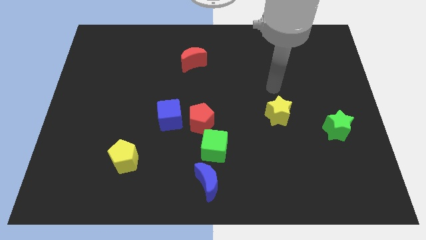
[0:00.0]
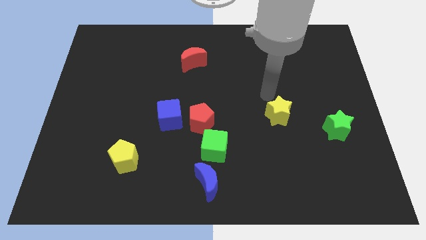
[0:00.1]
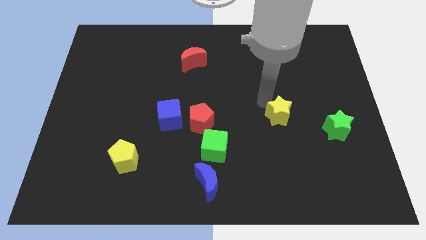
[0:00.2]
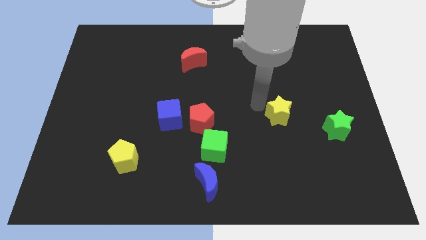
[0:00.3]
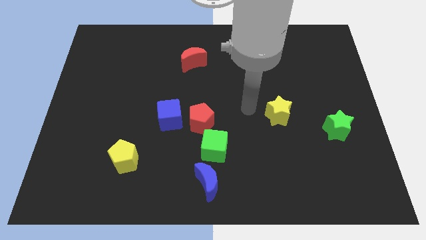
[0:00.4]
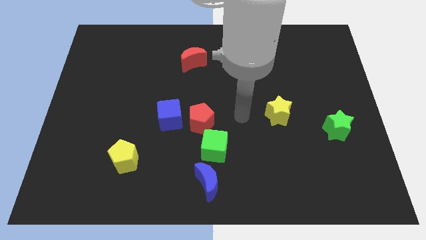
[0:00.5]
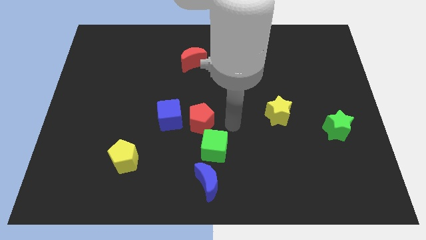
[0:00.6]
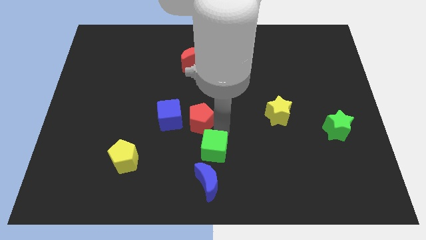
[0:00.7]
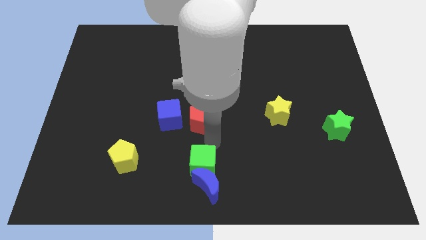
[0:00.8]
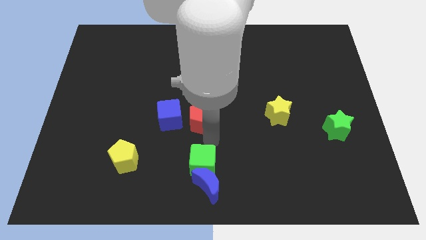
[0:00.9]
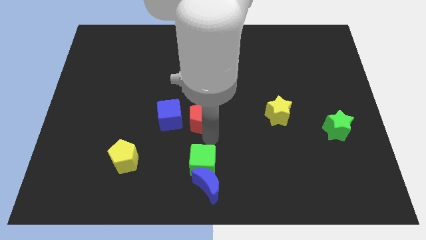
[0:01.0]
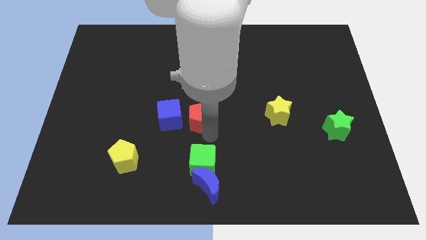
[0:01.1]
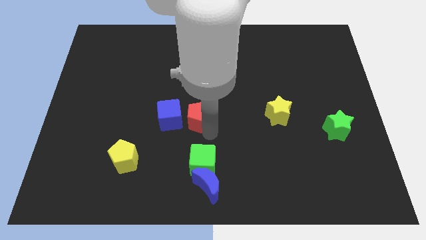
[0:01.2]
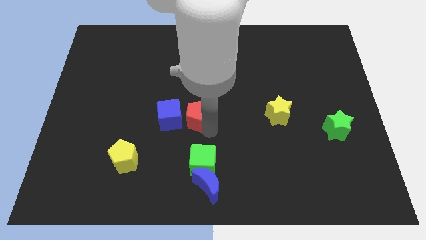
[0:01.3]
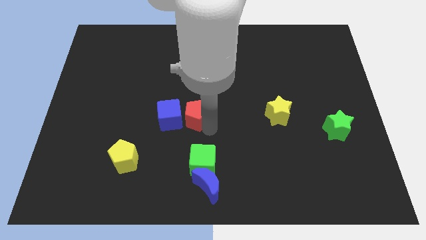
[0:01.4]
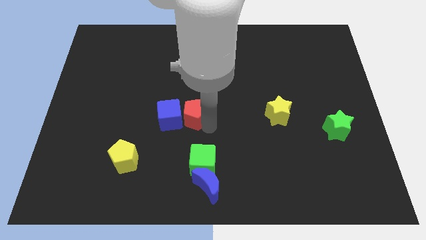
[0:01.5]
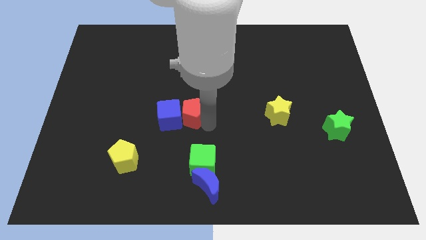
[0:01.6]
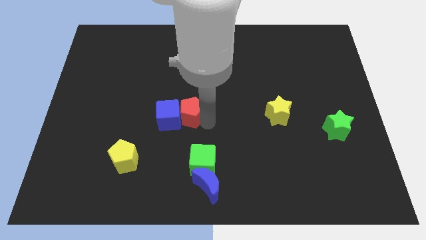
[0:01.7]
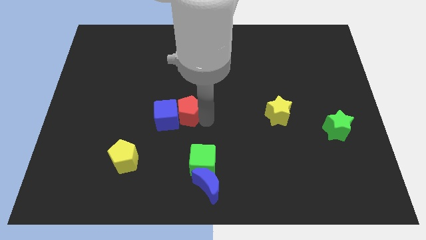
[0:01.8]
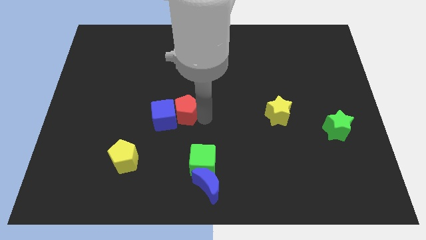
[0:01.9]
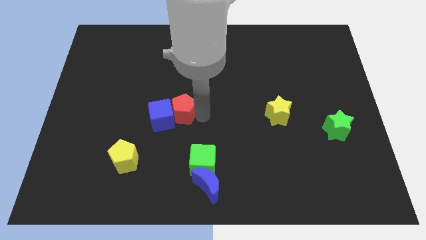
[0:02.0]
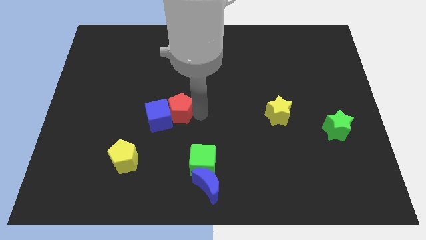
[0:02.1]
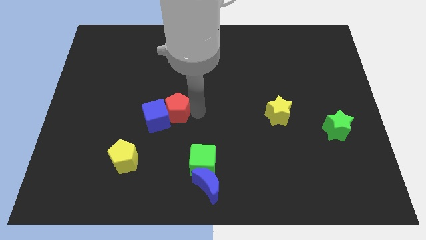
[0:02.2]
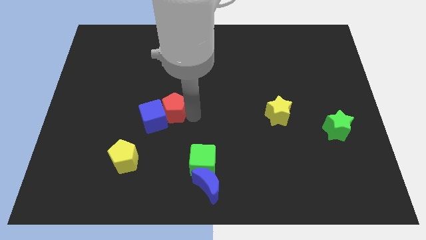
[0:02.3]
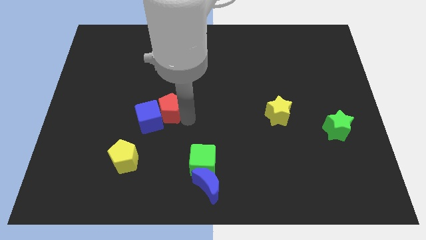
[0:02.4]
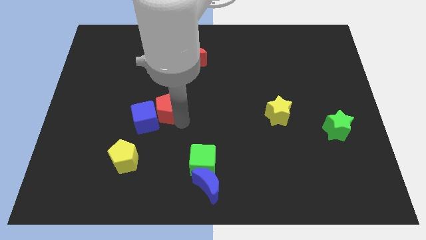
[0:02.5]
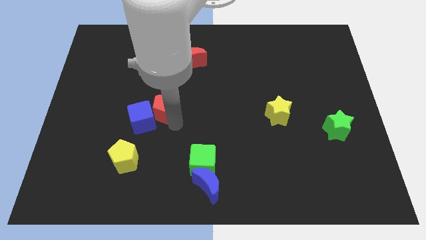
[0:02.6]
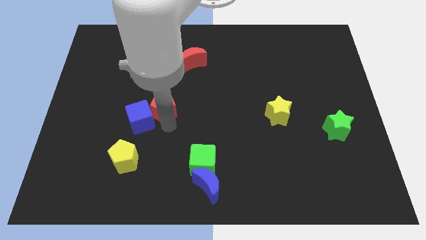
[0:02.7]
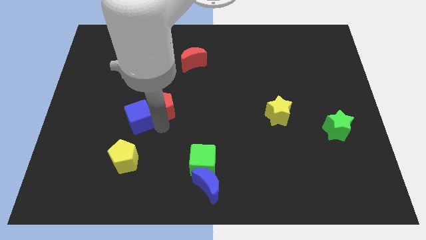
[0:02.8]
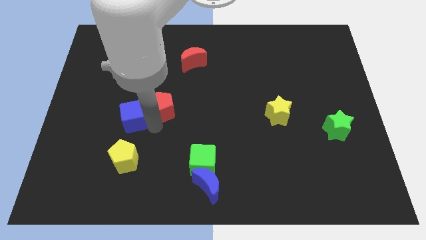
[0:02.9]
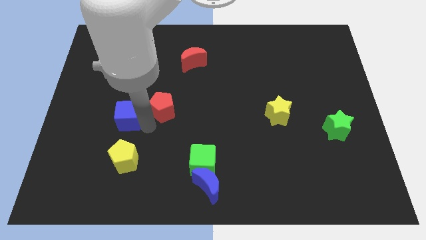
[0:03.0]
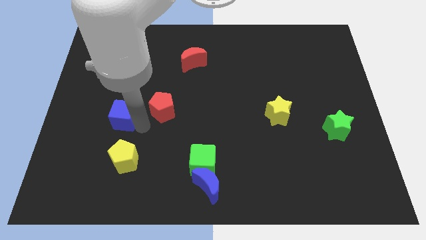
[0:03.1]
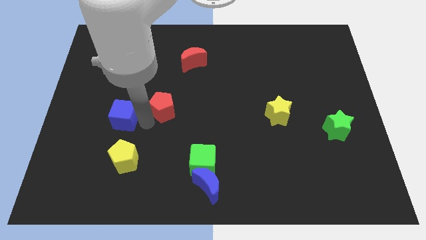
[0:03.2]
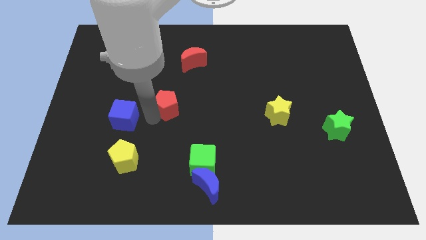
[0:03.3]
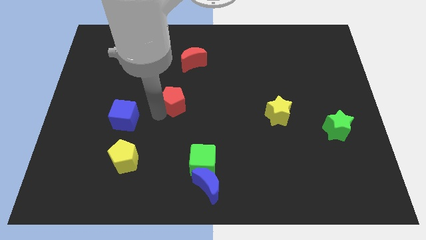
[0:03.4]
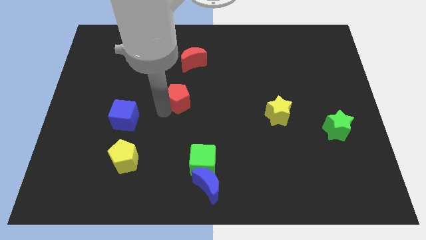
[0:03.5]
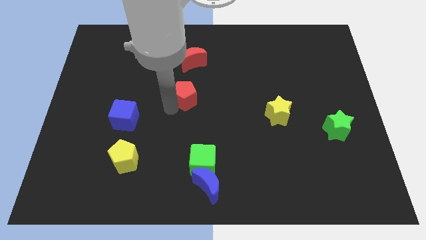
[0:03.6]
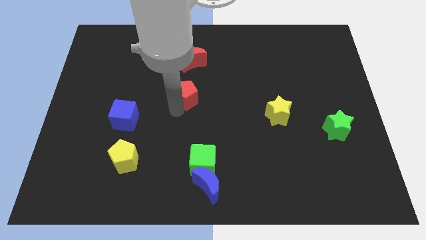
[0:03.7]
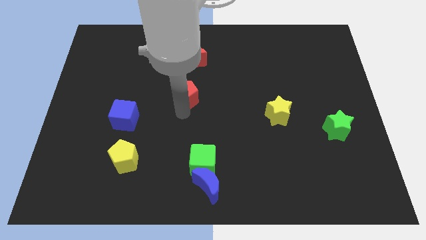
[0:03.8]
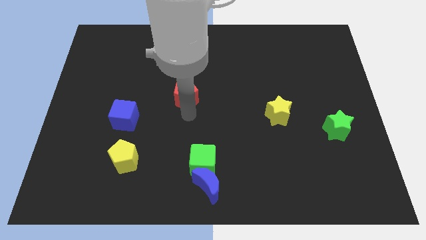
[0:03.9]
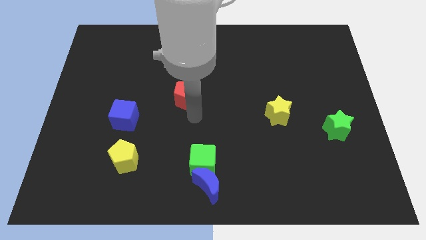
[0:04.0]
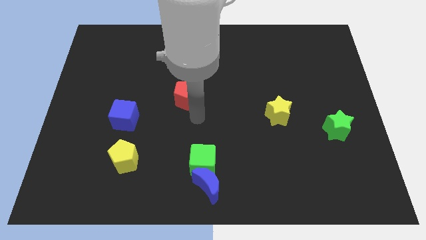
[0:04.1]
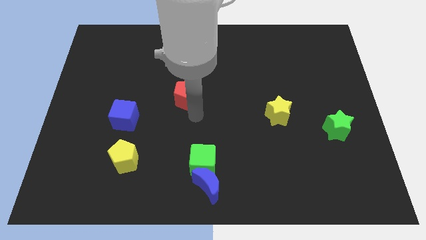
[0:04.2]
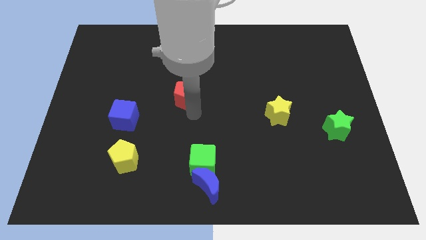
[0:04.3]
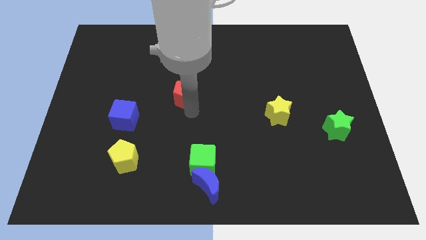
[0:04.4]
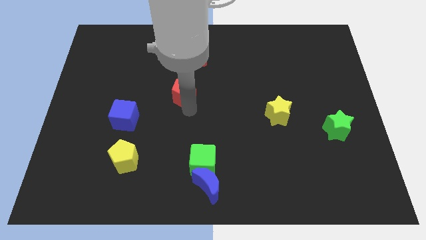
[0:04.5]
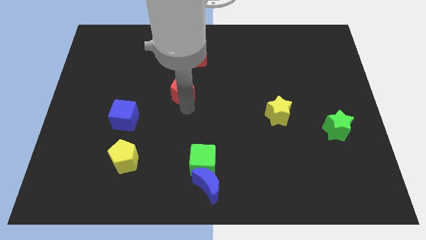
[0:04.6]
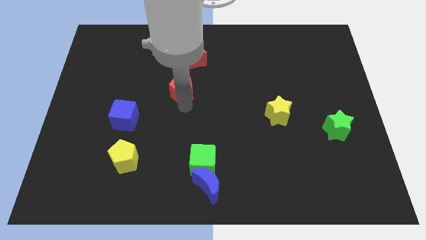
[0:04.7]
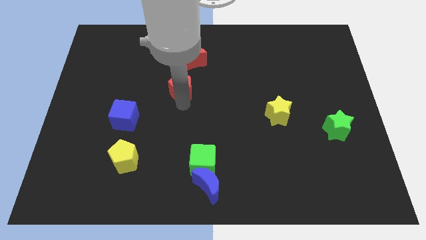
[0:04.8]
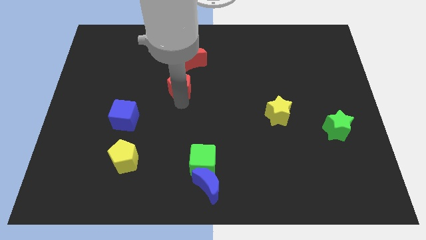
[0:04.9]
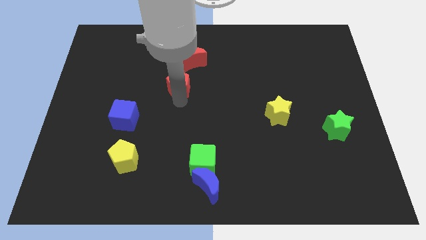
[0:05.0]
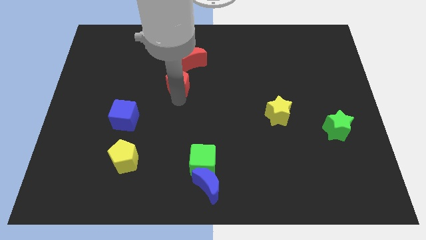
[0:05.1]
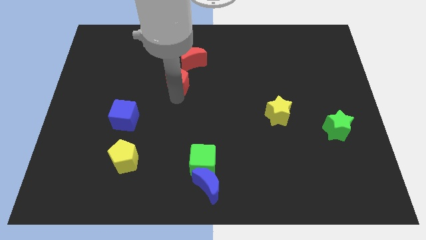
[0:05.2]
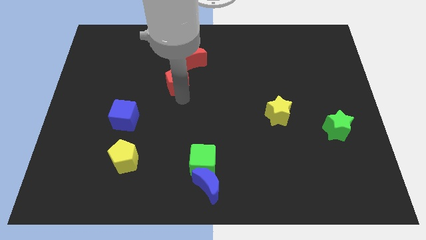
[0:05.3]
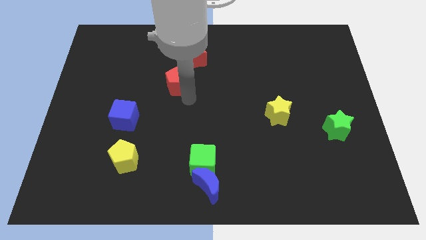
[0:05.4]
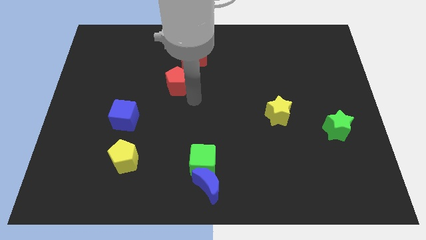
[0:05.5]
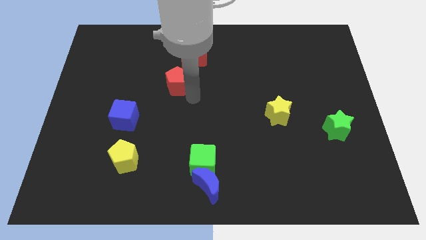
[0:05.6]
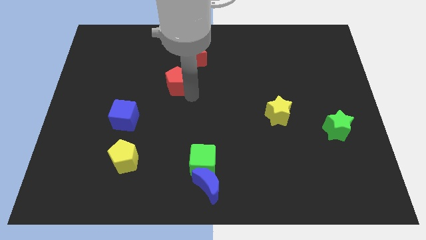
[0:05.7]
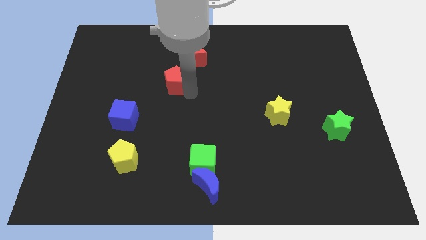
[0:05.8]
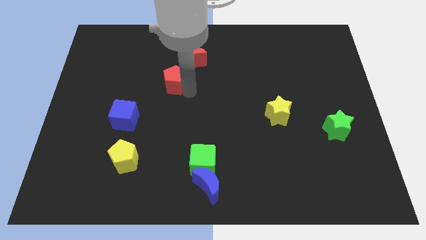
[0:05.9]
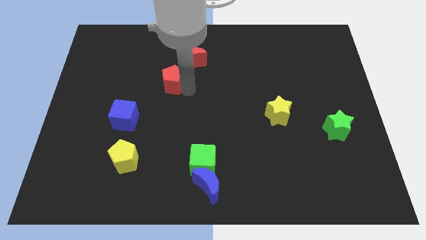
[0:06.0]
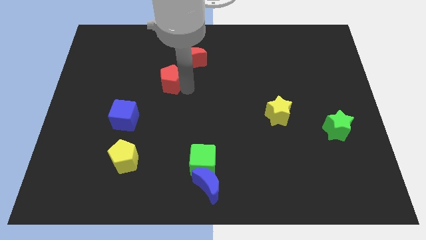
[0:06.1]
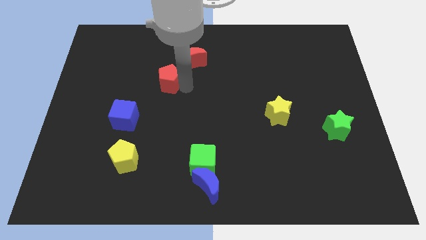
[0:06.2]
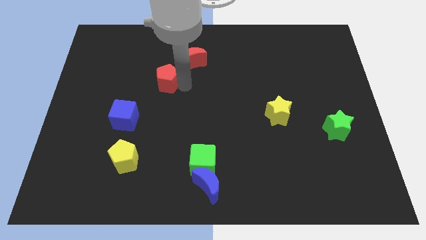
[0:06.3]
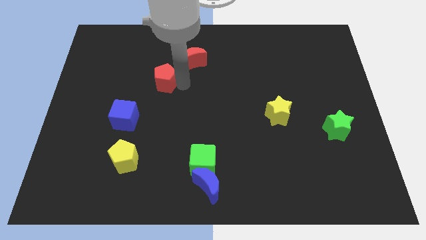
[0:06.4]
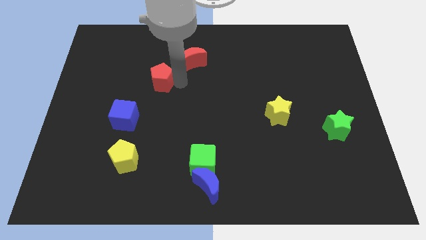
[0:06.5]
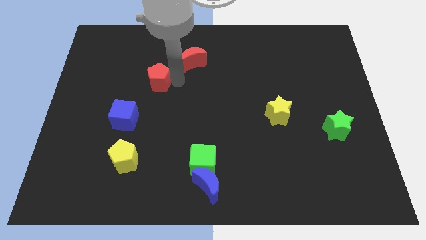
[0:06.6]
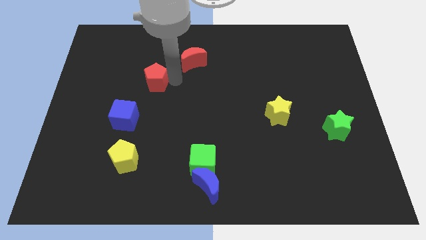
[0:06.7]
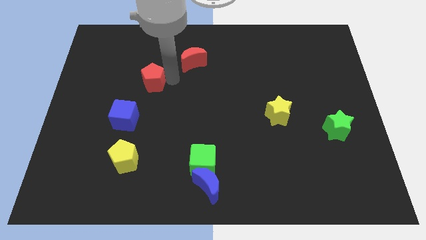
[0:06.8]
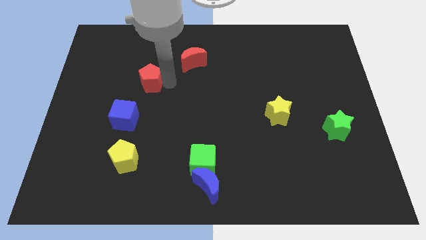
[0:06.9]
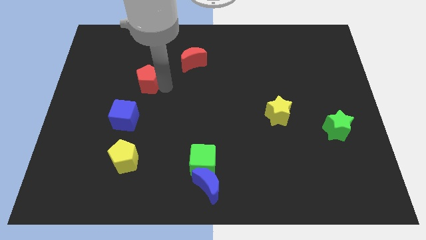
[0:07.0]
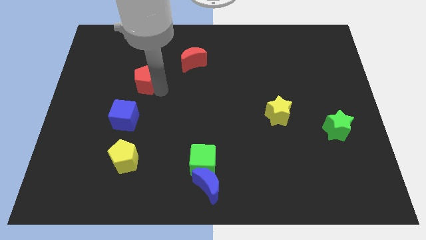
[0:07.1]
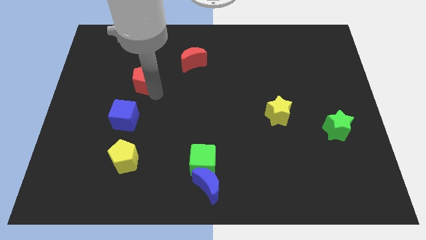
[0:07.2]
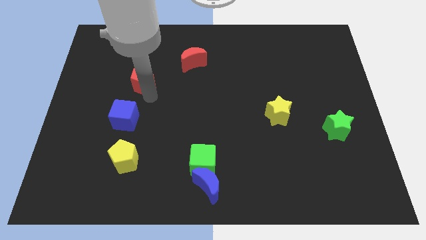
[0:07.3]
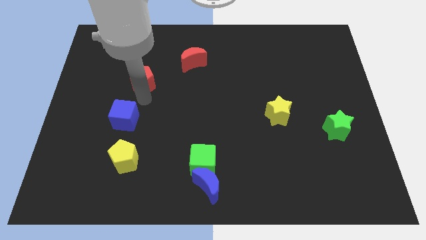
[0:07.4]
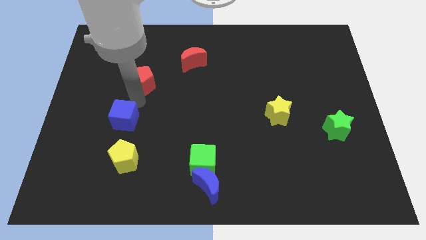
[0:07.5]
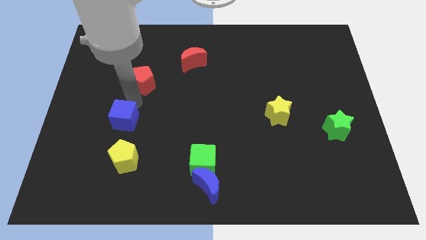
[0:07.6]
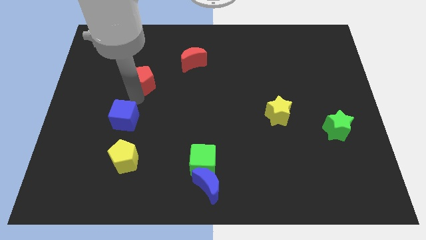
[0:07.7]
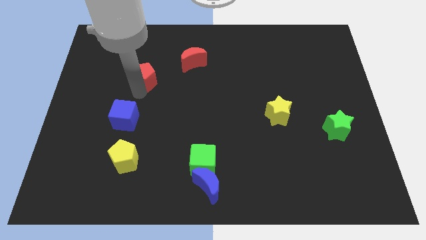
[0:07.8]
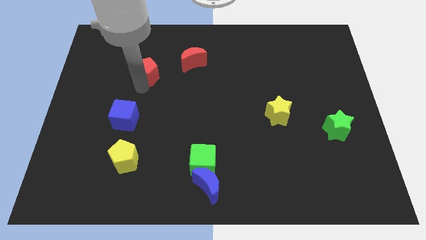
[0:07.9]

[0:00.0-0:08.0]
push the red pentagon just left of the red moon
